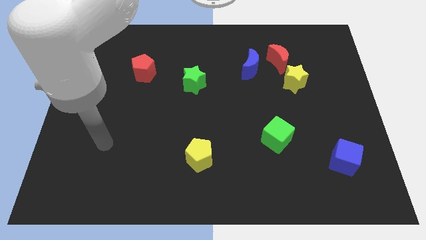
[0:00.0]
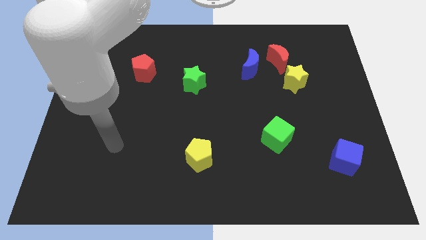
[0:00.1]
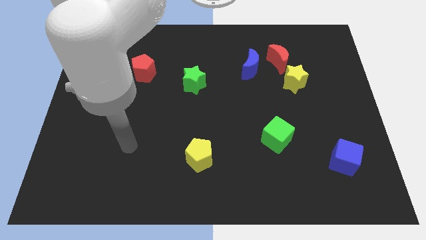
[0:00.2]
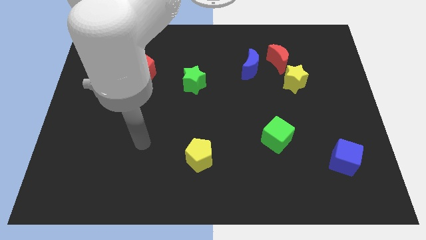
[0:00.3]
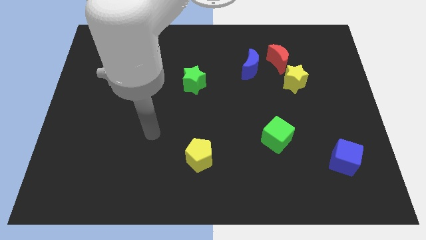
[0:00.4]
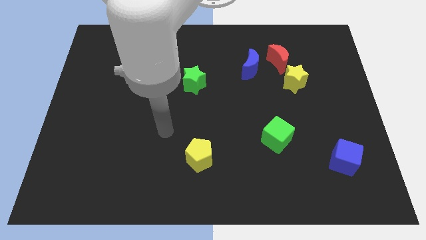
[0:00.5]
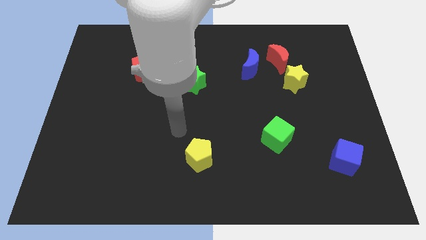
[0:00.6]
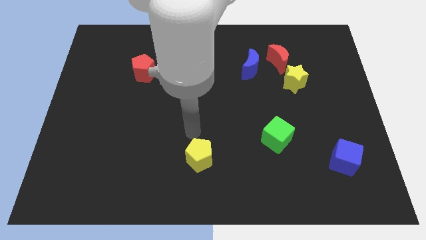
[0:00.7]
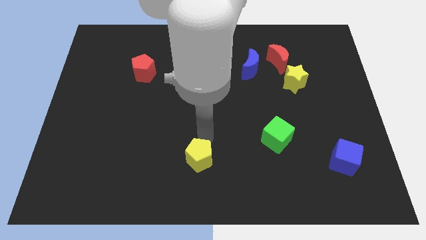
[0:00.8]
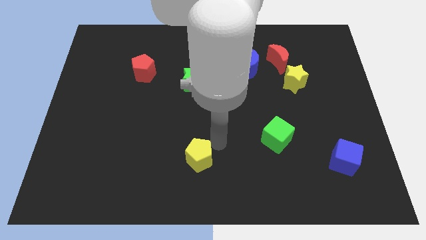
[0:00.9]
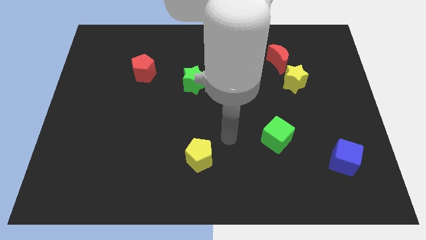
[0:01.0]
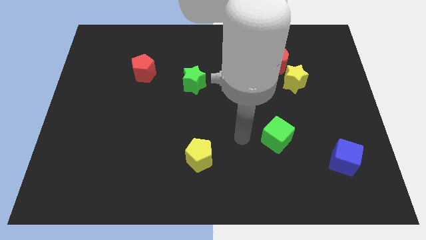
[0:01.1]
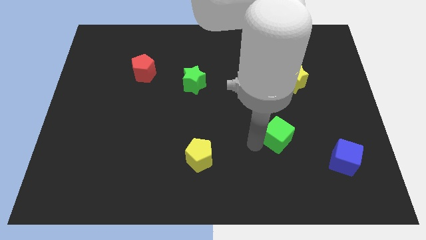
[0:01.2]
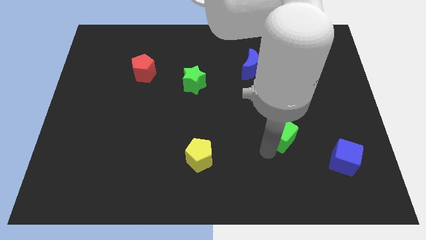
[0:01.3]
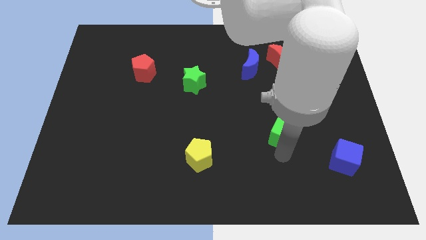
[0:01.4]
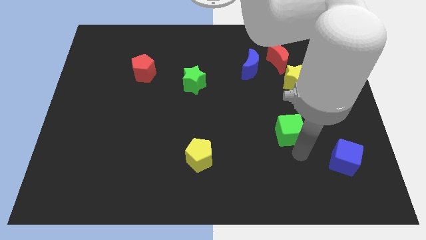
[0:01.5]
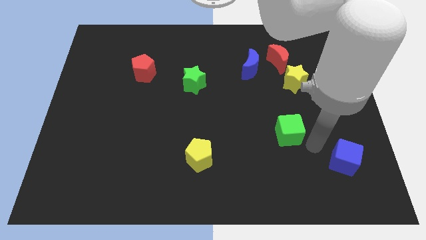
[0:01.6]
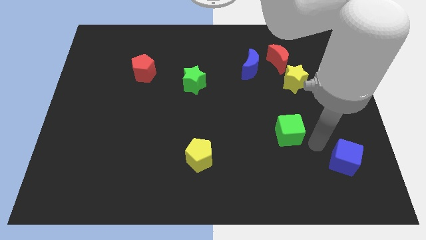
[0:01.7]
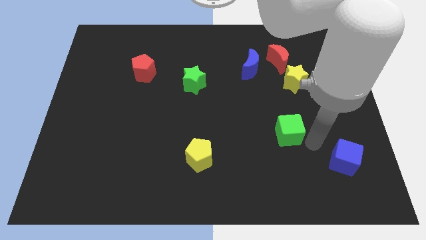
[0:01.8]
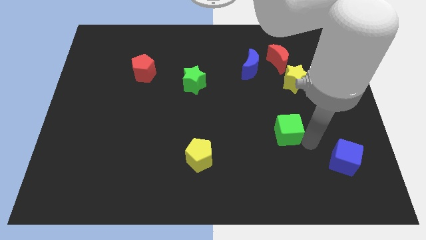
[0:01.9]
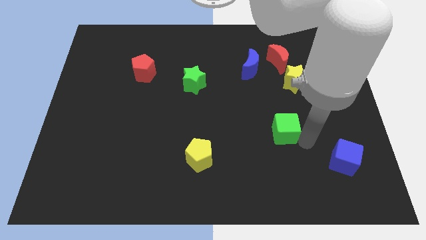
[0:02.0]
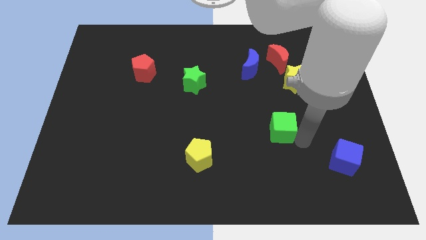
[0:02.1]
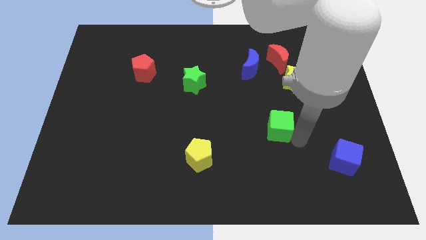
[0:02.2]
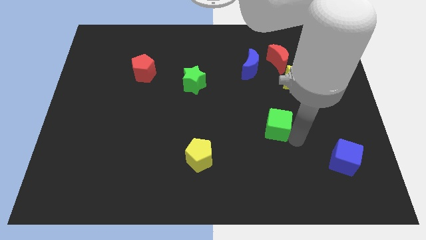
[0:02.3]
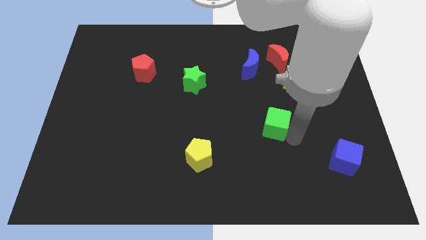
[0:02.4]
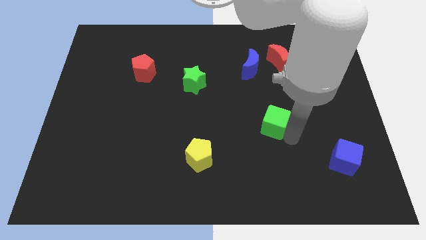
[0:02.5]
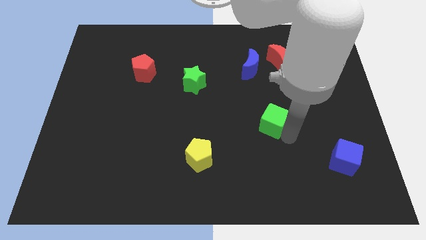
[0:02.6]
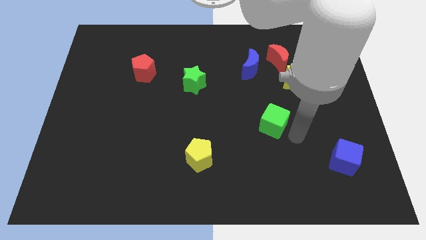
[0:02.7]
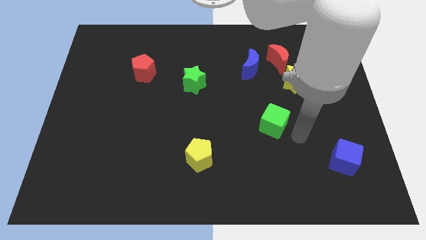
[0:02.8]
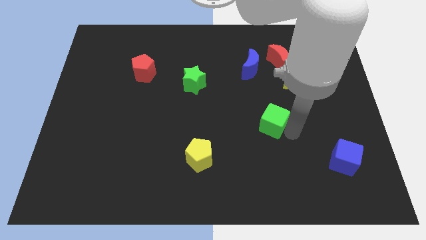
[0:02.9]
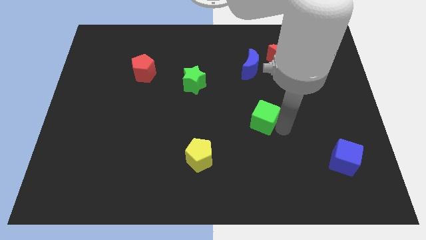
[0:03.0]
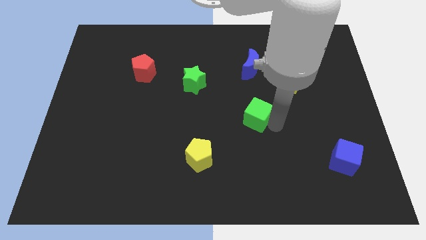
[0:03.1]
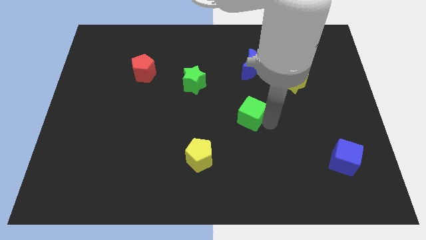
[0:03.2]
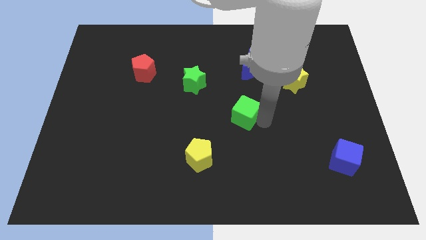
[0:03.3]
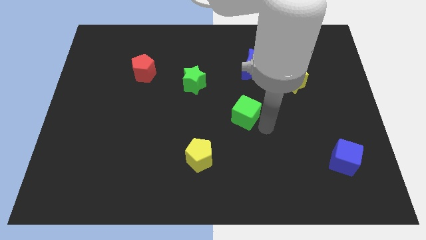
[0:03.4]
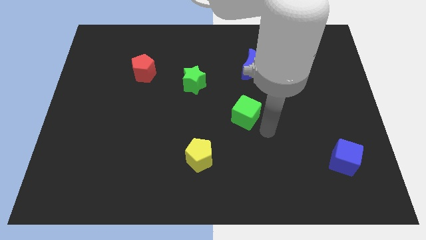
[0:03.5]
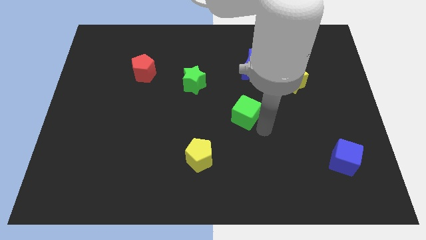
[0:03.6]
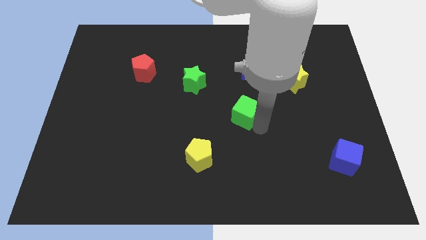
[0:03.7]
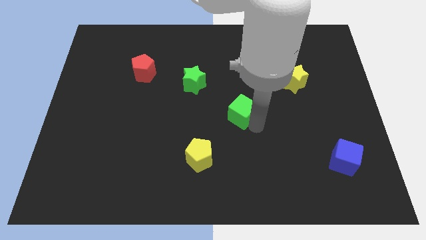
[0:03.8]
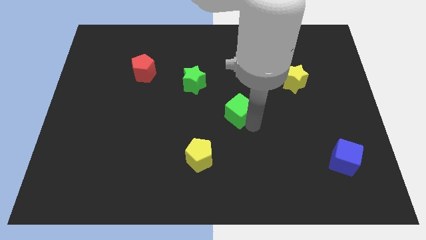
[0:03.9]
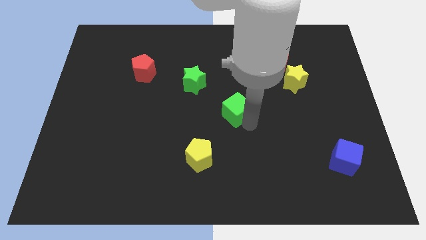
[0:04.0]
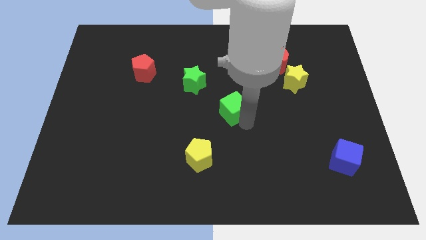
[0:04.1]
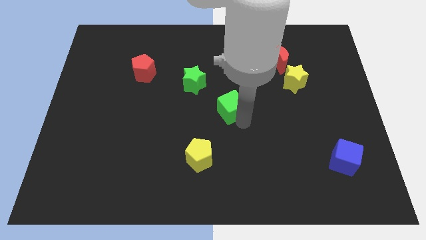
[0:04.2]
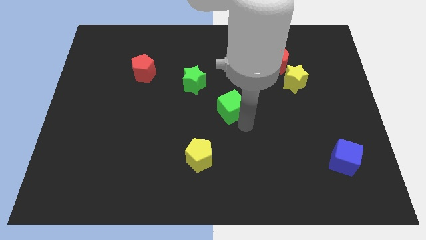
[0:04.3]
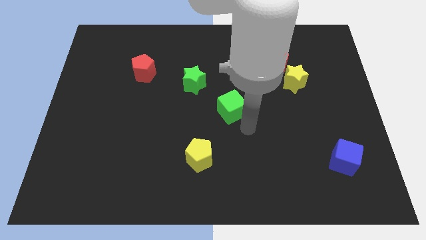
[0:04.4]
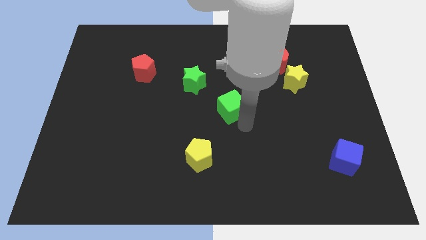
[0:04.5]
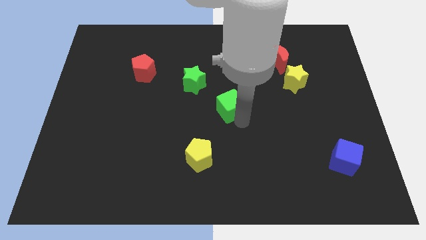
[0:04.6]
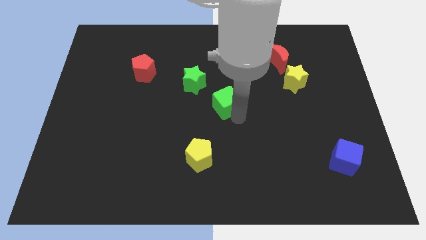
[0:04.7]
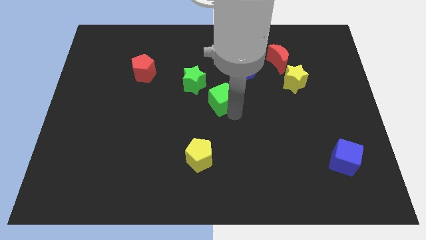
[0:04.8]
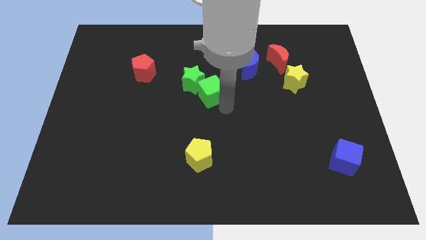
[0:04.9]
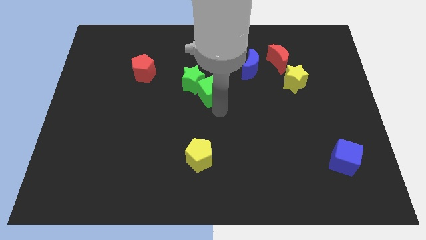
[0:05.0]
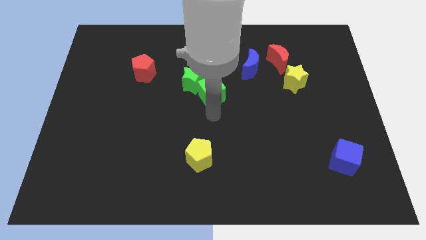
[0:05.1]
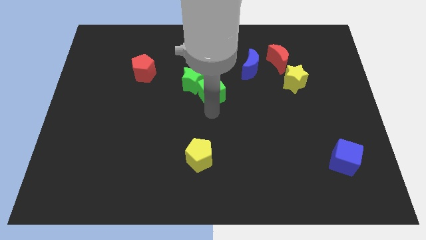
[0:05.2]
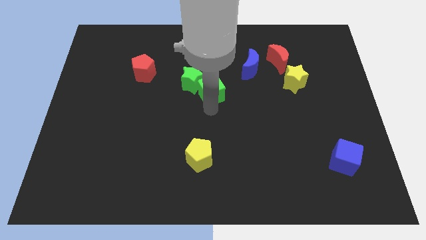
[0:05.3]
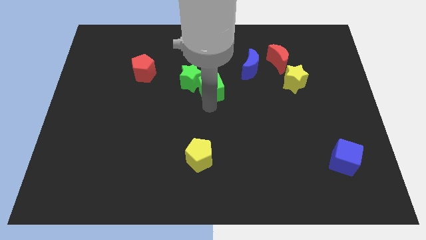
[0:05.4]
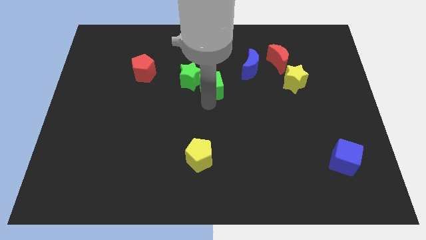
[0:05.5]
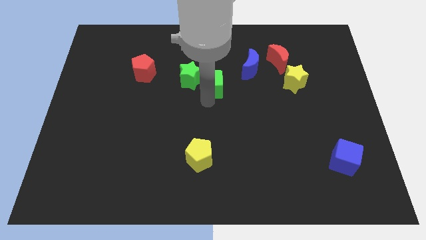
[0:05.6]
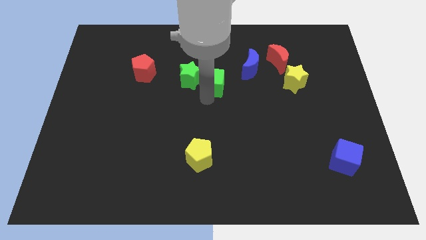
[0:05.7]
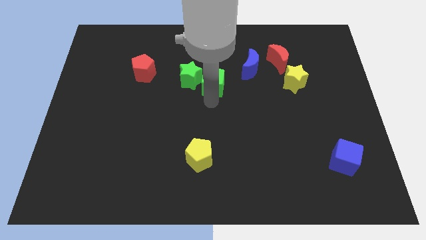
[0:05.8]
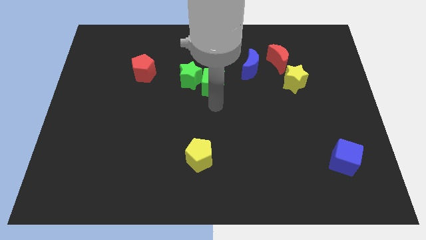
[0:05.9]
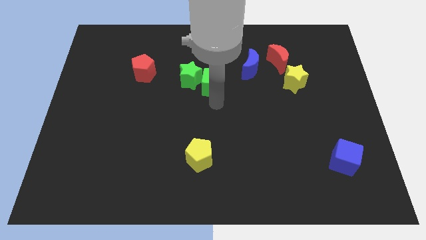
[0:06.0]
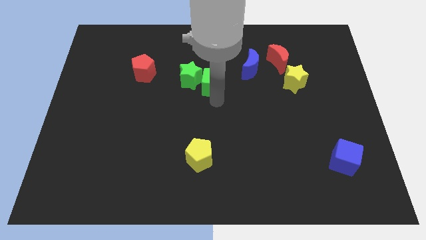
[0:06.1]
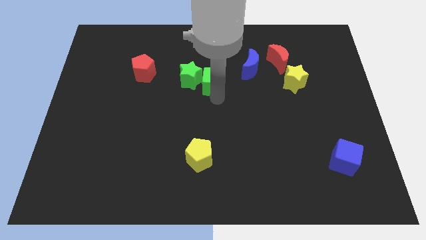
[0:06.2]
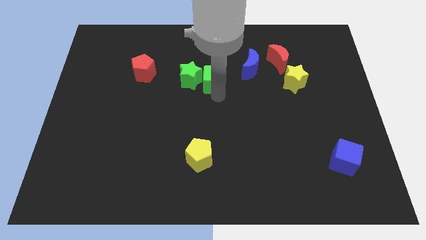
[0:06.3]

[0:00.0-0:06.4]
slide the green cube to the left side of the blue moon

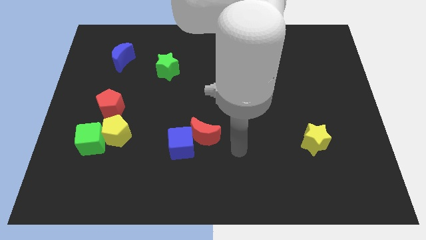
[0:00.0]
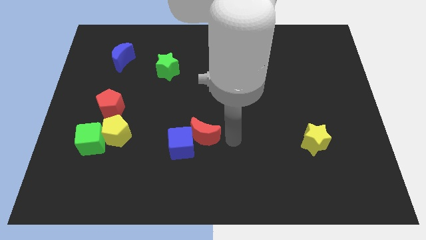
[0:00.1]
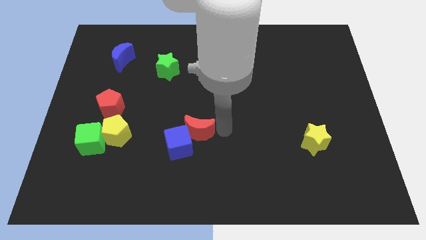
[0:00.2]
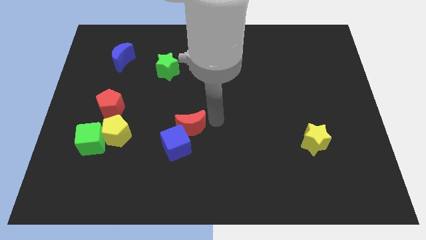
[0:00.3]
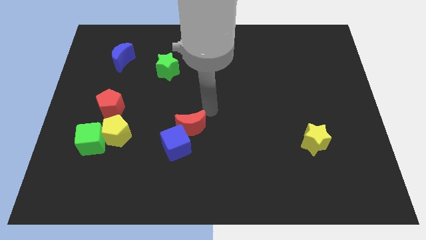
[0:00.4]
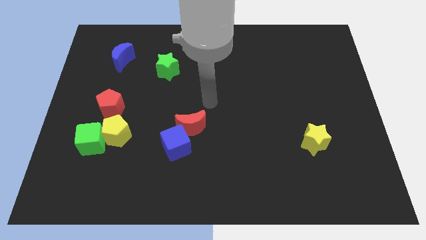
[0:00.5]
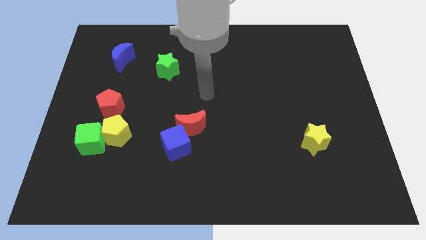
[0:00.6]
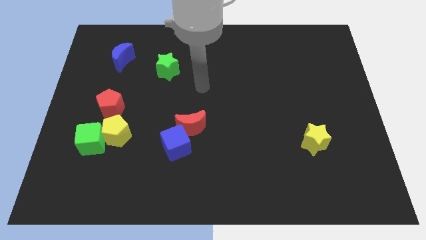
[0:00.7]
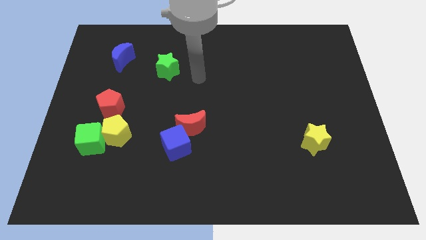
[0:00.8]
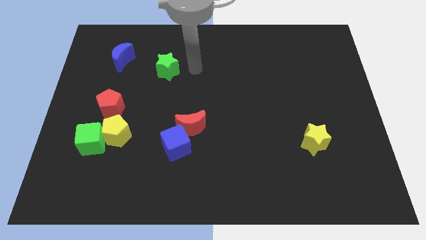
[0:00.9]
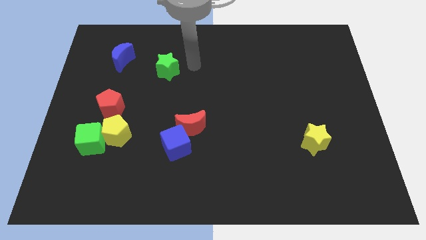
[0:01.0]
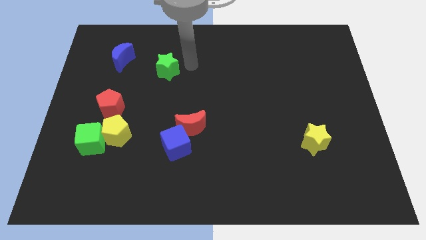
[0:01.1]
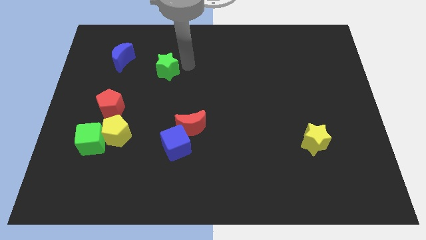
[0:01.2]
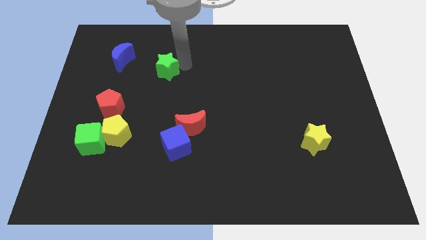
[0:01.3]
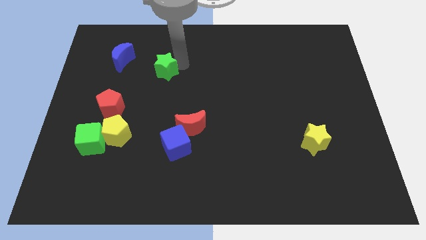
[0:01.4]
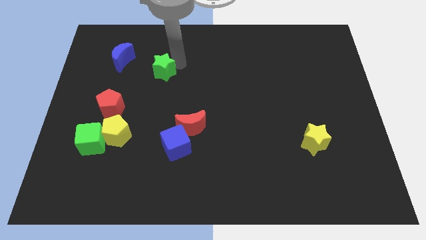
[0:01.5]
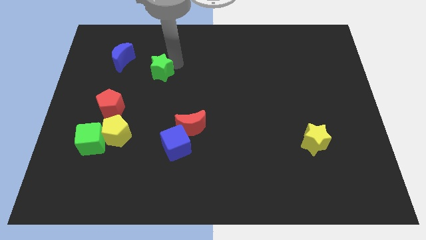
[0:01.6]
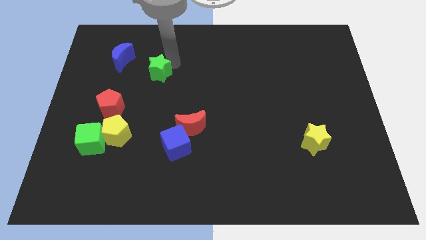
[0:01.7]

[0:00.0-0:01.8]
slide the green star to the bottom right of the blue moon

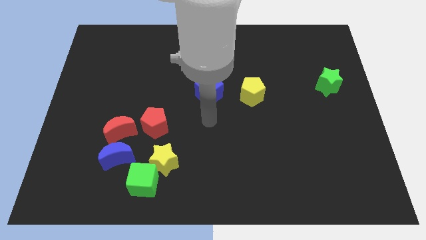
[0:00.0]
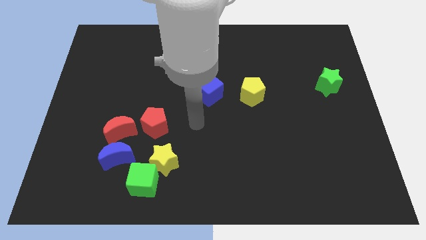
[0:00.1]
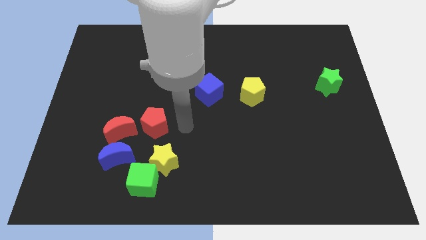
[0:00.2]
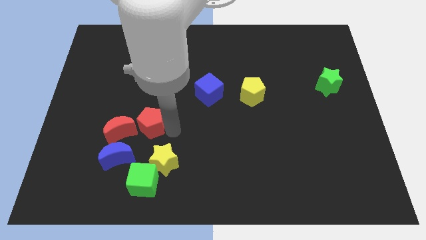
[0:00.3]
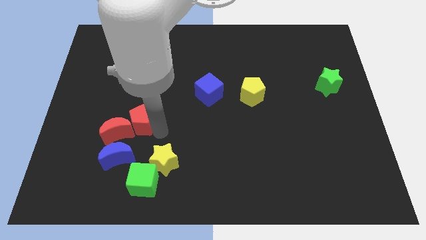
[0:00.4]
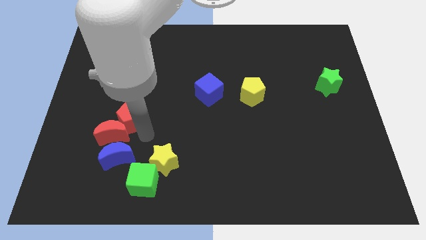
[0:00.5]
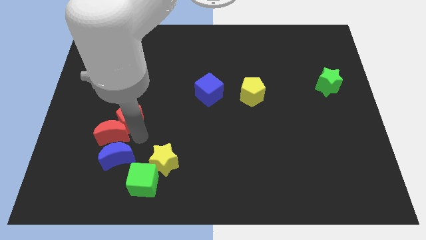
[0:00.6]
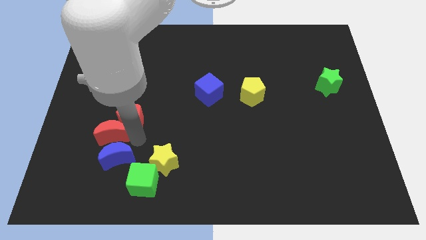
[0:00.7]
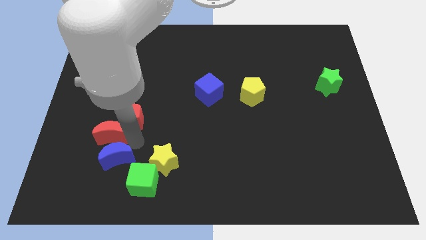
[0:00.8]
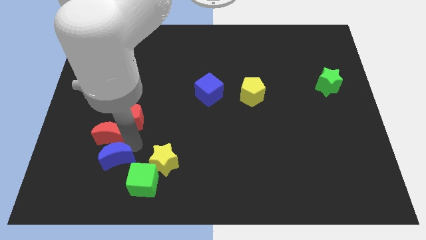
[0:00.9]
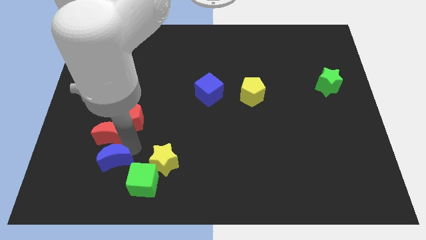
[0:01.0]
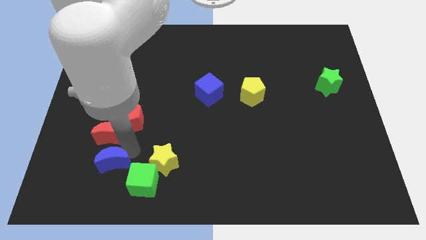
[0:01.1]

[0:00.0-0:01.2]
slide the blue moon to the left of the green cube
